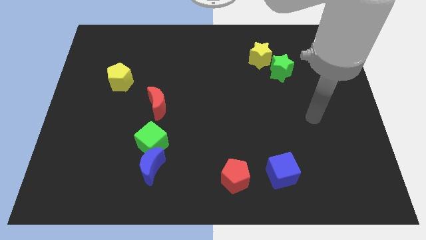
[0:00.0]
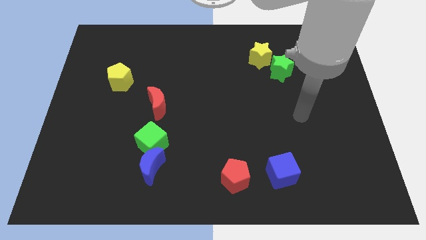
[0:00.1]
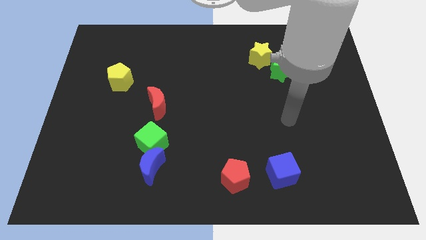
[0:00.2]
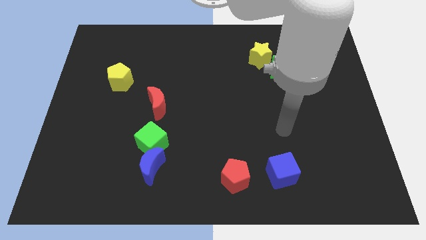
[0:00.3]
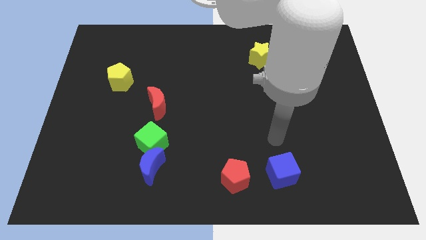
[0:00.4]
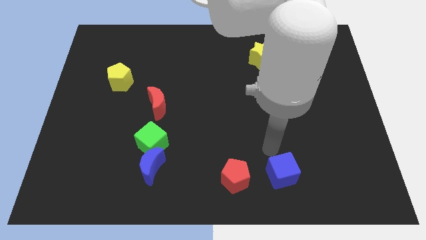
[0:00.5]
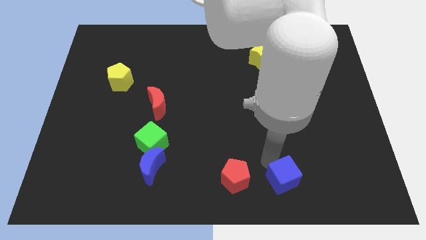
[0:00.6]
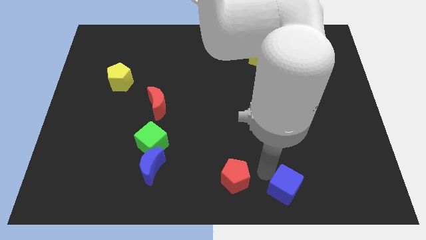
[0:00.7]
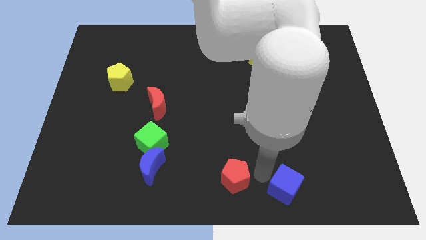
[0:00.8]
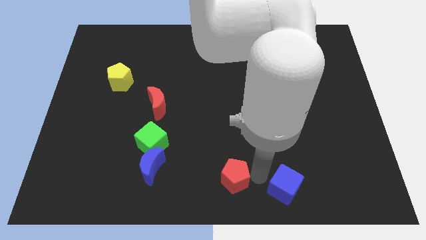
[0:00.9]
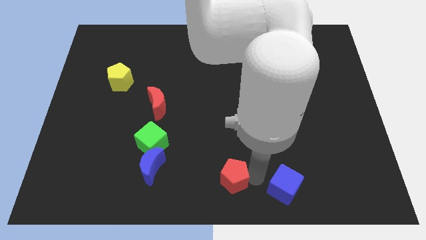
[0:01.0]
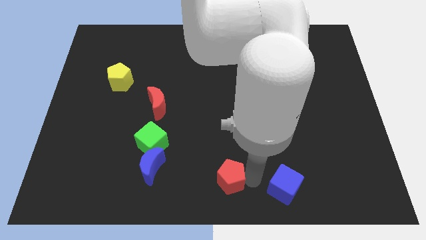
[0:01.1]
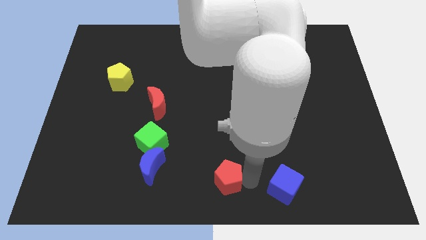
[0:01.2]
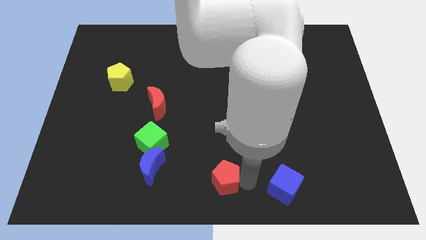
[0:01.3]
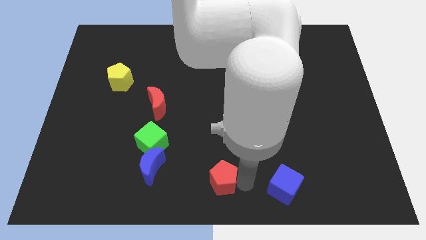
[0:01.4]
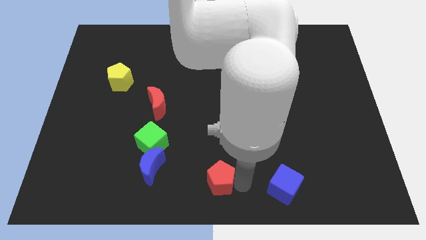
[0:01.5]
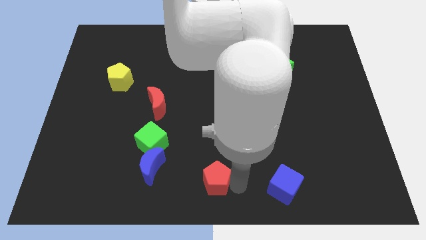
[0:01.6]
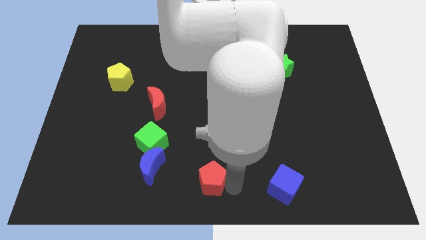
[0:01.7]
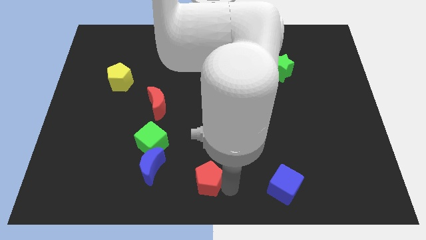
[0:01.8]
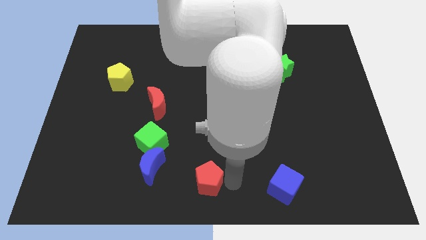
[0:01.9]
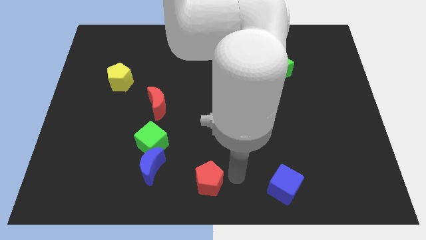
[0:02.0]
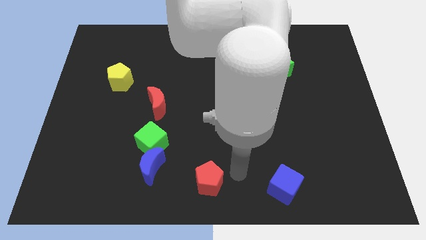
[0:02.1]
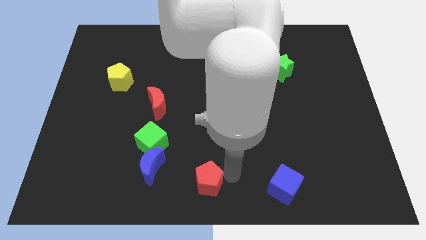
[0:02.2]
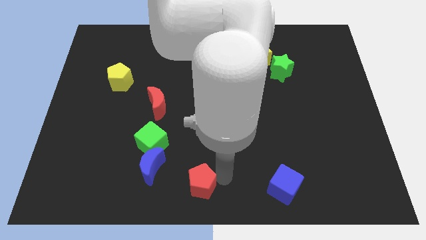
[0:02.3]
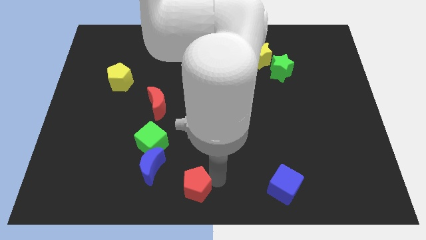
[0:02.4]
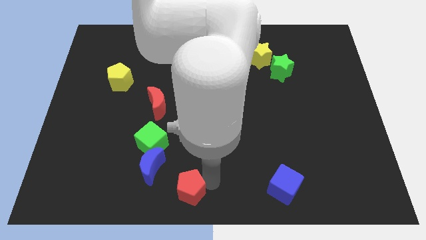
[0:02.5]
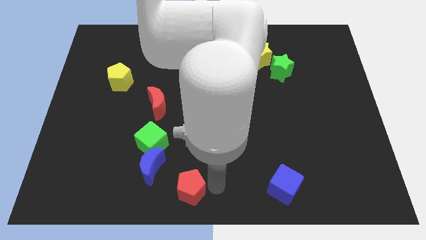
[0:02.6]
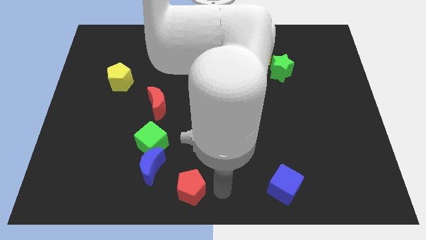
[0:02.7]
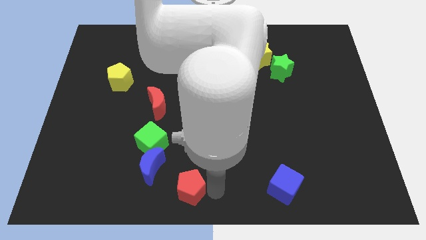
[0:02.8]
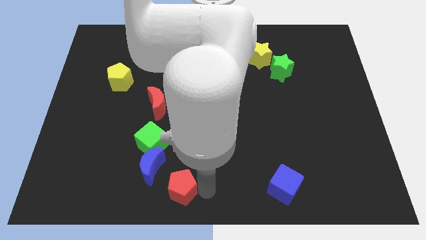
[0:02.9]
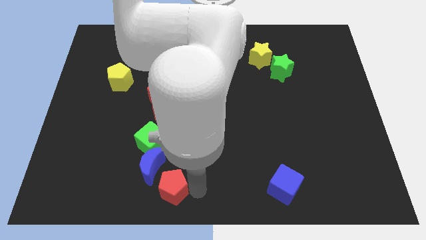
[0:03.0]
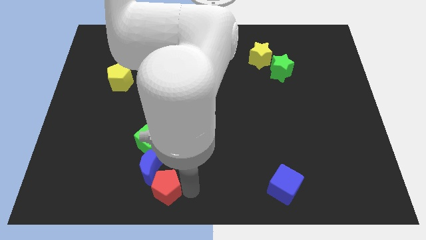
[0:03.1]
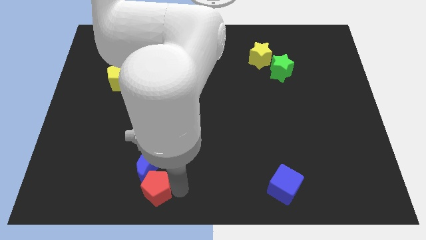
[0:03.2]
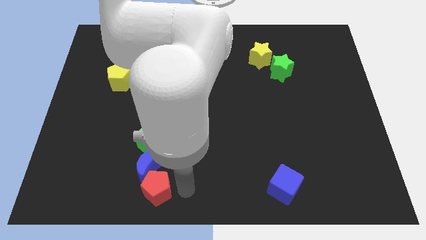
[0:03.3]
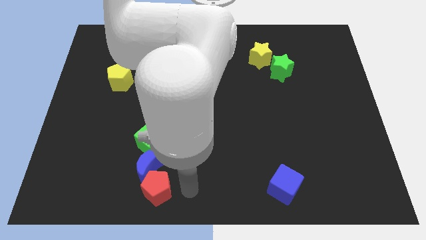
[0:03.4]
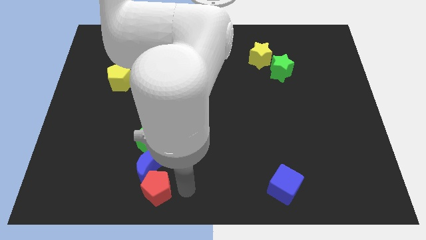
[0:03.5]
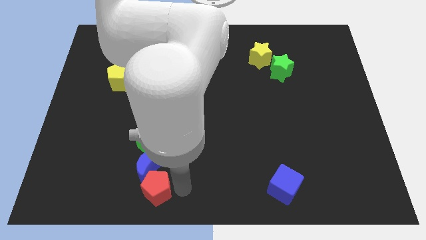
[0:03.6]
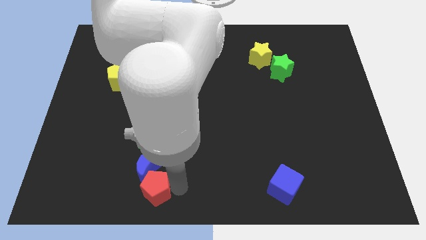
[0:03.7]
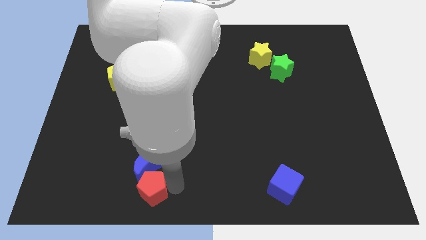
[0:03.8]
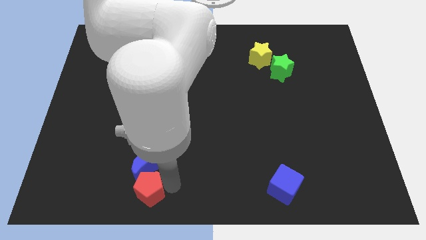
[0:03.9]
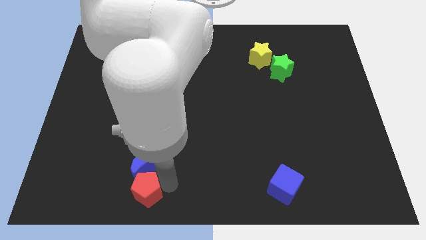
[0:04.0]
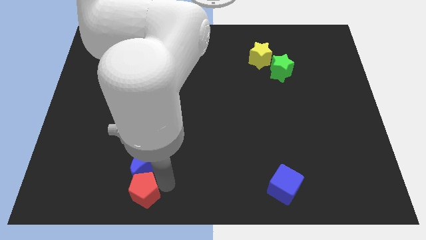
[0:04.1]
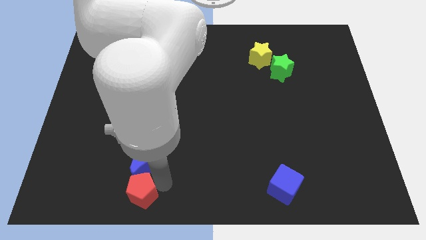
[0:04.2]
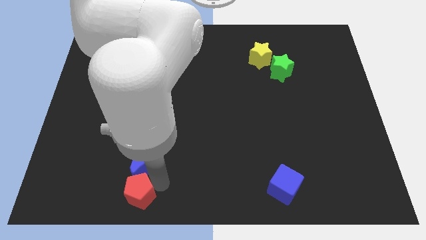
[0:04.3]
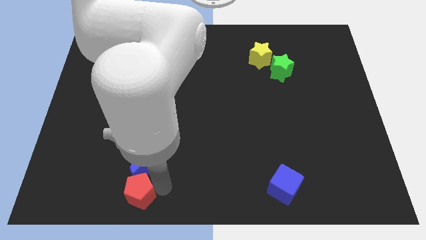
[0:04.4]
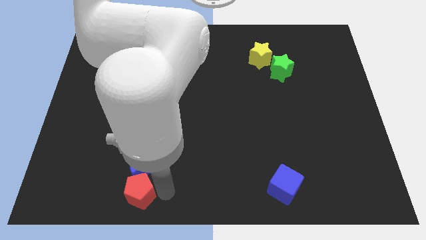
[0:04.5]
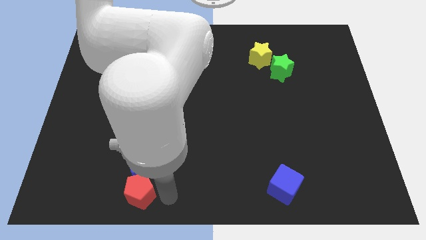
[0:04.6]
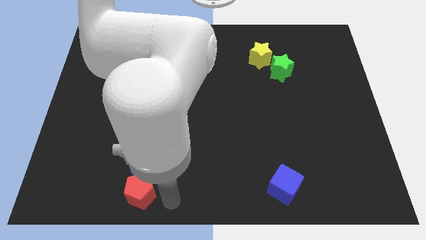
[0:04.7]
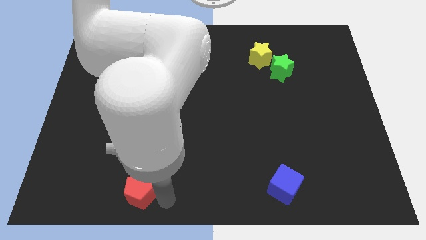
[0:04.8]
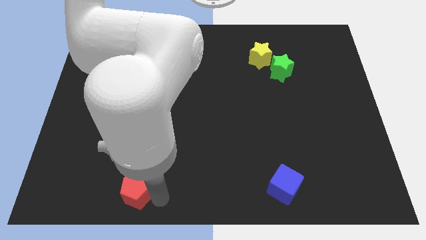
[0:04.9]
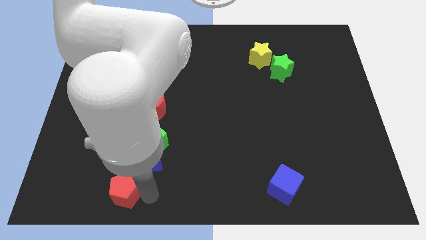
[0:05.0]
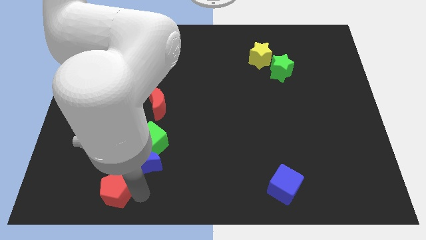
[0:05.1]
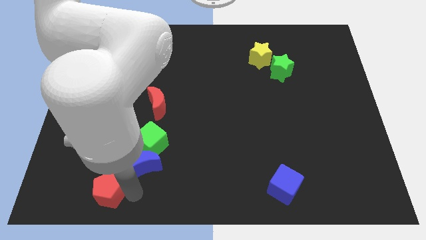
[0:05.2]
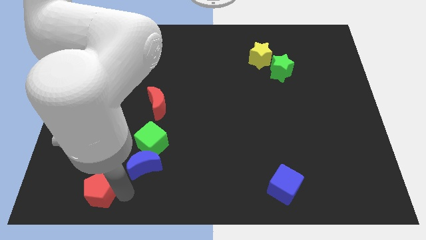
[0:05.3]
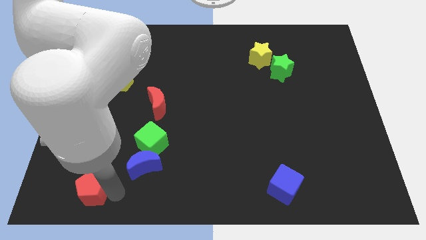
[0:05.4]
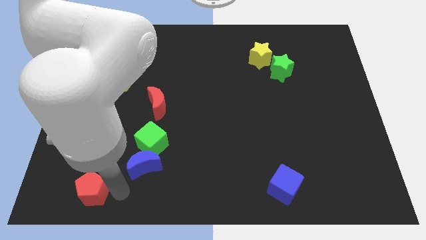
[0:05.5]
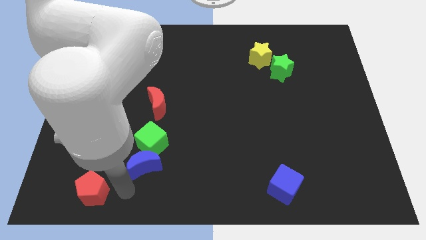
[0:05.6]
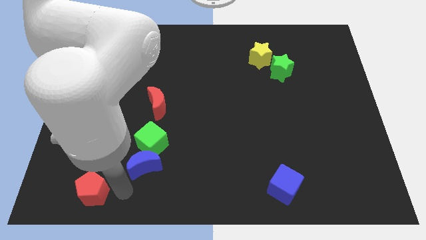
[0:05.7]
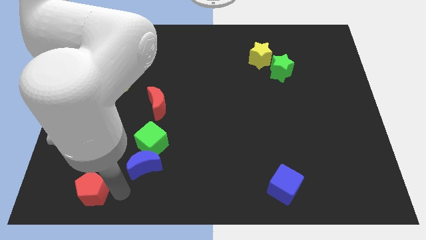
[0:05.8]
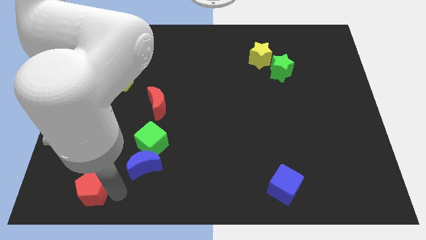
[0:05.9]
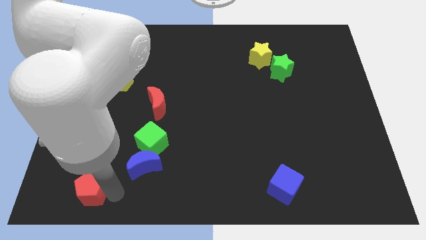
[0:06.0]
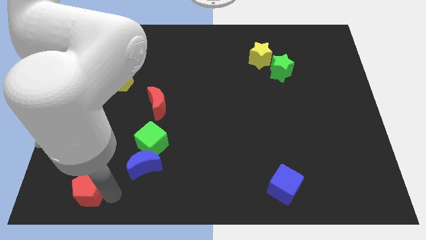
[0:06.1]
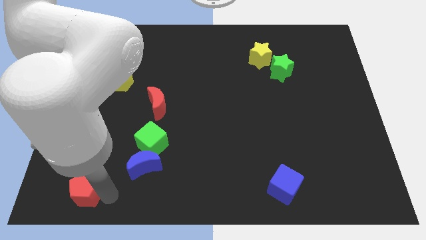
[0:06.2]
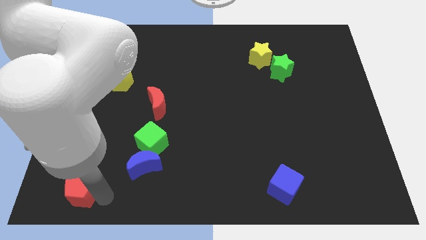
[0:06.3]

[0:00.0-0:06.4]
move the red pentagon to the bottom left of the board
